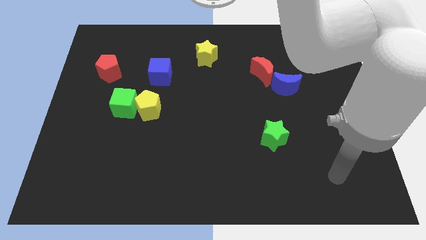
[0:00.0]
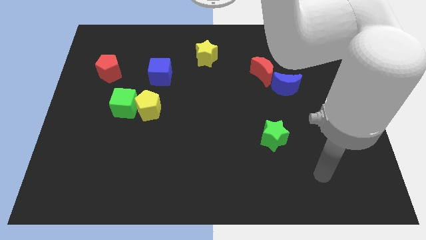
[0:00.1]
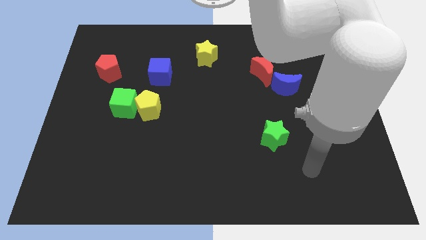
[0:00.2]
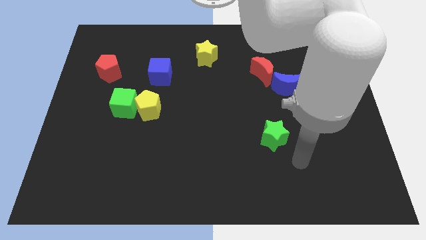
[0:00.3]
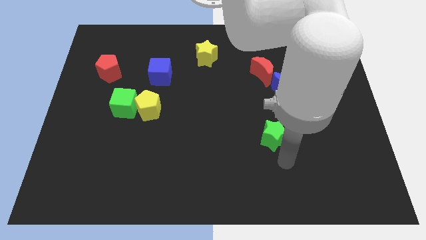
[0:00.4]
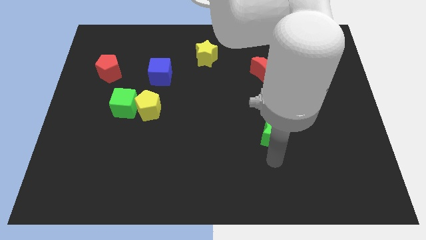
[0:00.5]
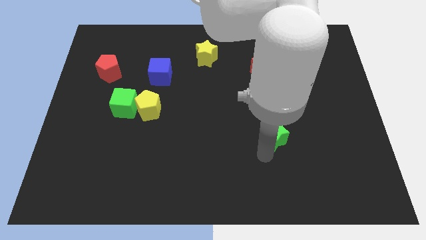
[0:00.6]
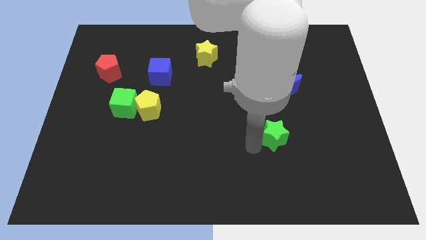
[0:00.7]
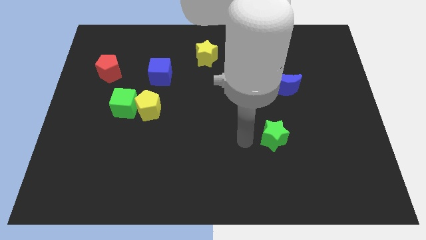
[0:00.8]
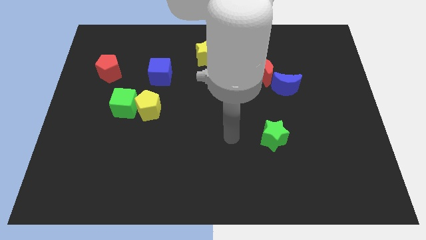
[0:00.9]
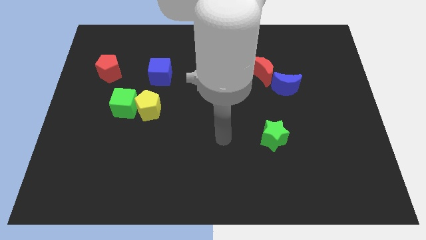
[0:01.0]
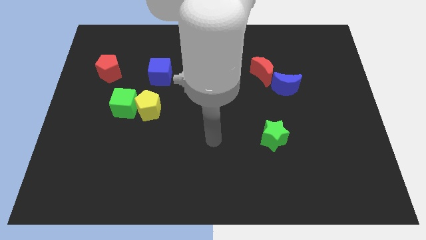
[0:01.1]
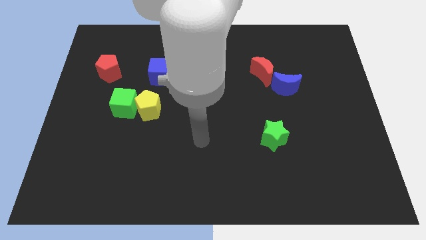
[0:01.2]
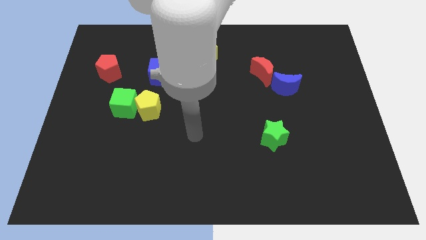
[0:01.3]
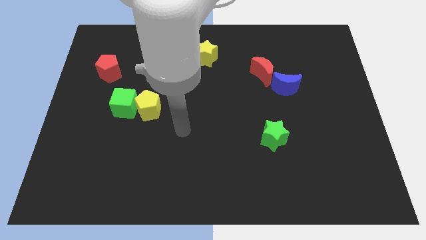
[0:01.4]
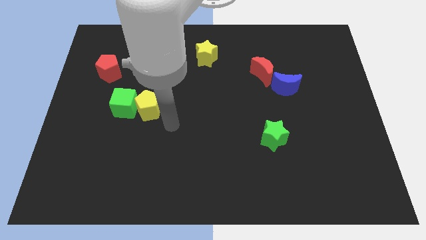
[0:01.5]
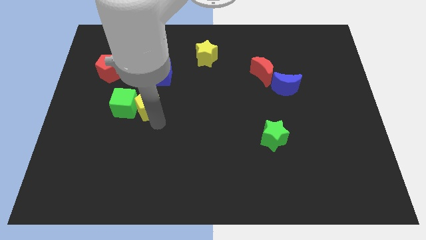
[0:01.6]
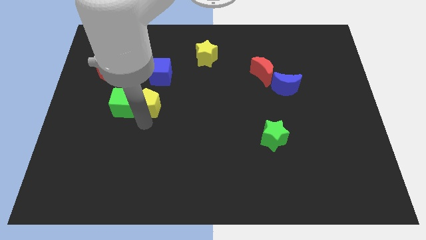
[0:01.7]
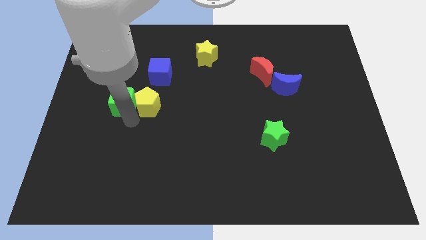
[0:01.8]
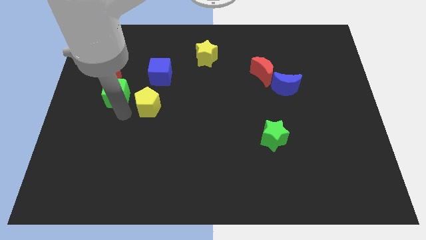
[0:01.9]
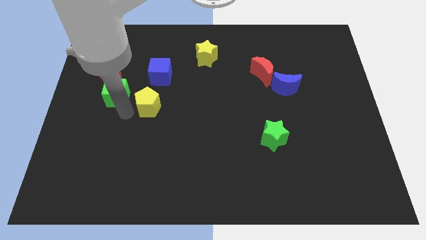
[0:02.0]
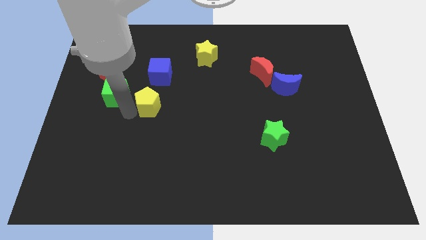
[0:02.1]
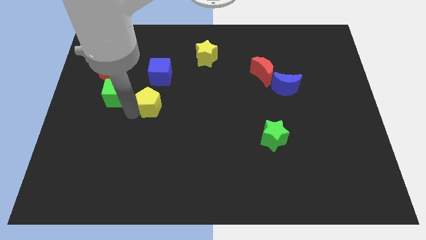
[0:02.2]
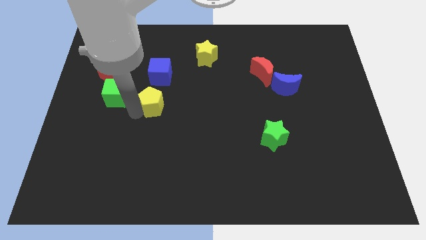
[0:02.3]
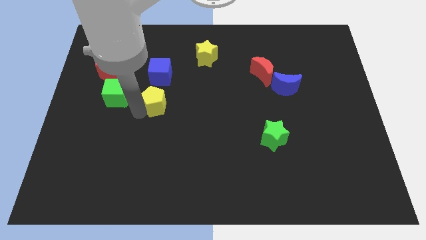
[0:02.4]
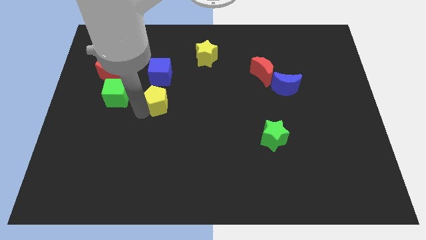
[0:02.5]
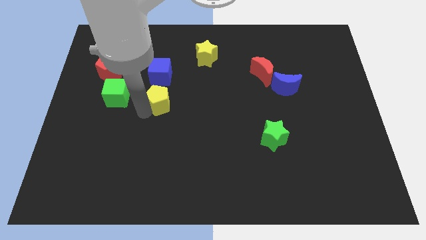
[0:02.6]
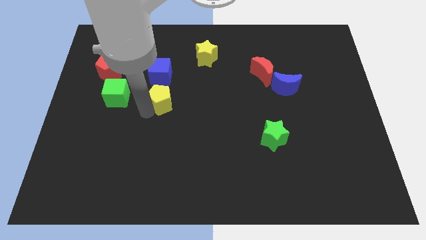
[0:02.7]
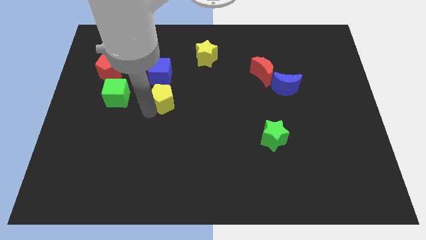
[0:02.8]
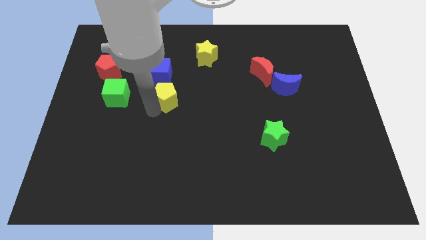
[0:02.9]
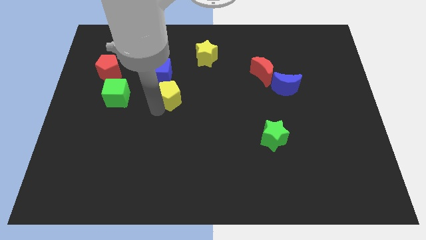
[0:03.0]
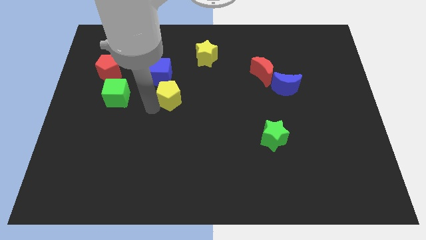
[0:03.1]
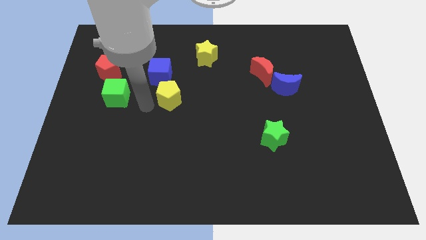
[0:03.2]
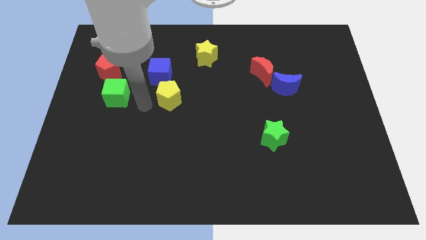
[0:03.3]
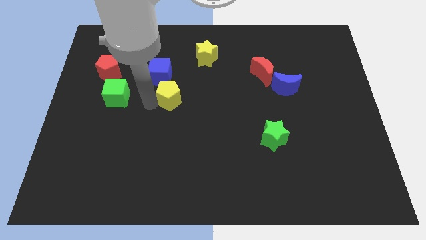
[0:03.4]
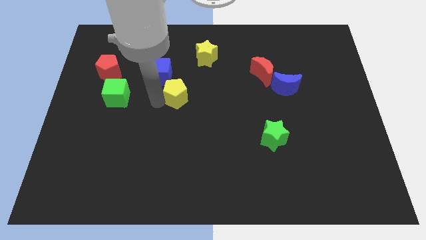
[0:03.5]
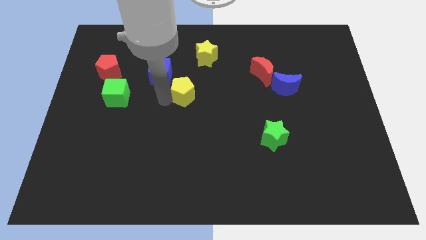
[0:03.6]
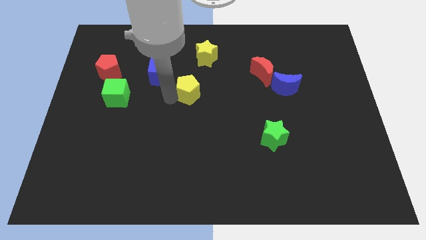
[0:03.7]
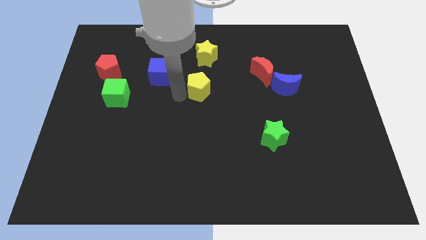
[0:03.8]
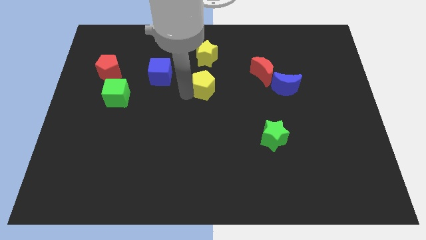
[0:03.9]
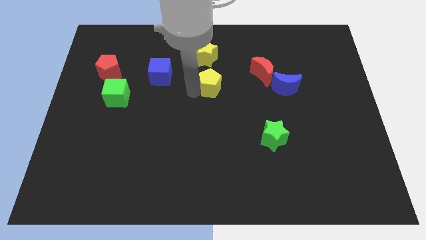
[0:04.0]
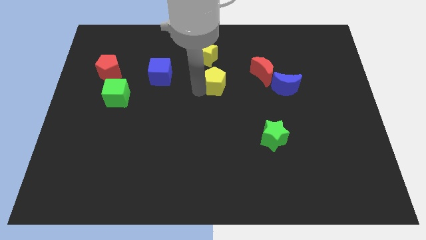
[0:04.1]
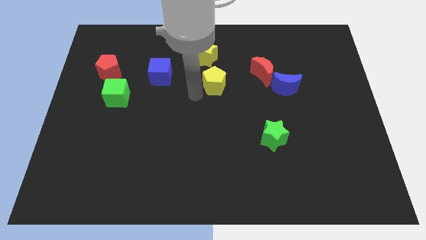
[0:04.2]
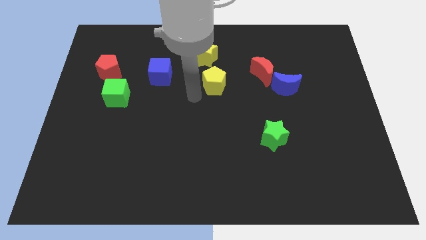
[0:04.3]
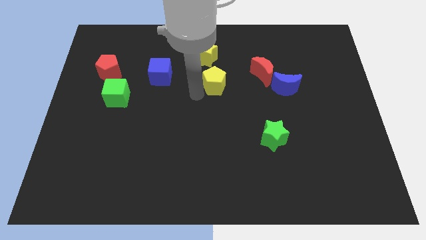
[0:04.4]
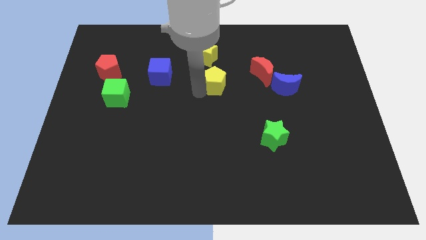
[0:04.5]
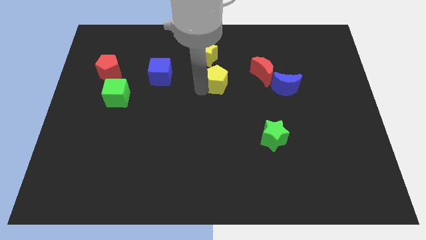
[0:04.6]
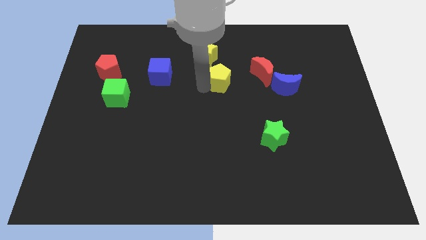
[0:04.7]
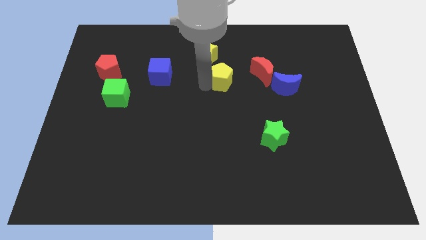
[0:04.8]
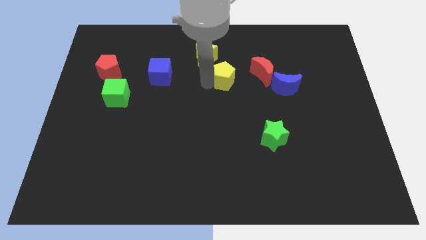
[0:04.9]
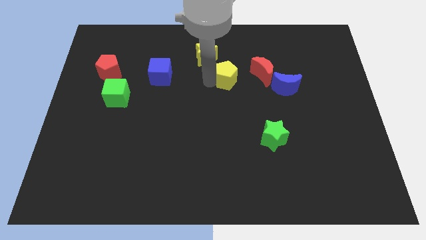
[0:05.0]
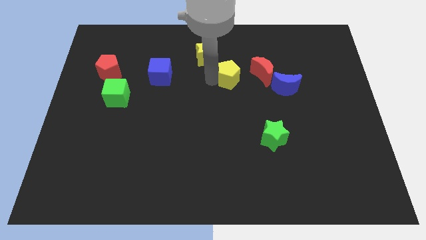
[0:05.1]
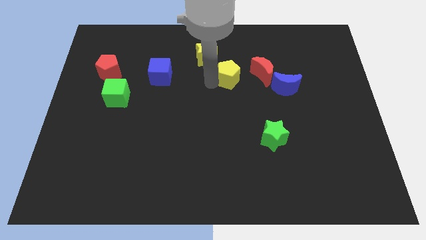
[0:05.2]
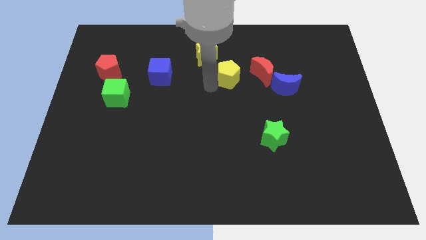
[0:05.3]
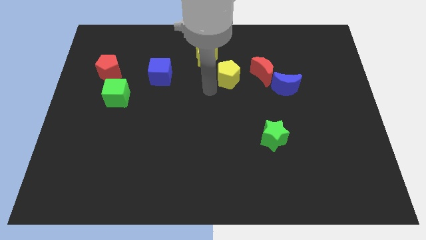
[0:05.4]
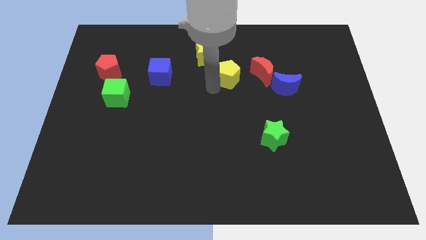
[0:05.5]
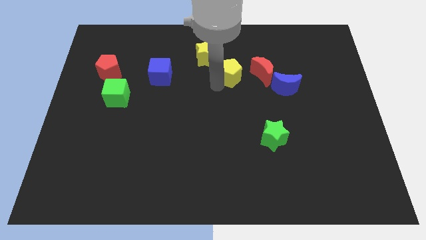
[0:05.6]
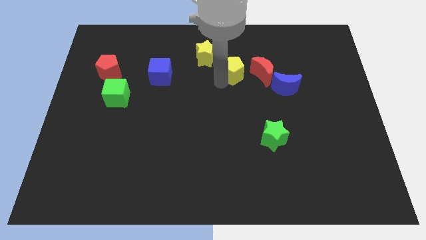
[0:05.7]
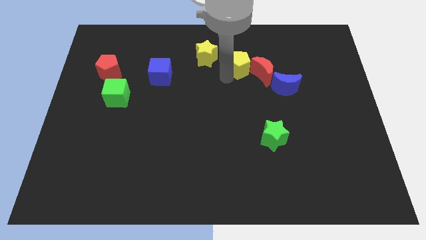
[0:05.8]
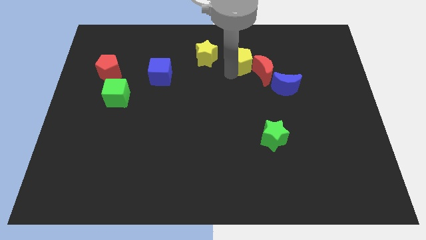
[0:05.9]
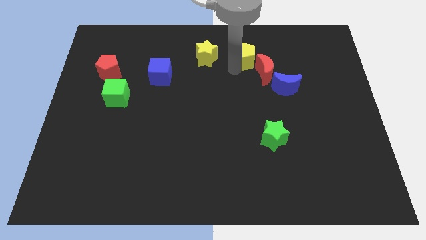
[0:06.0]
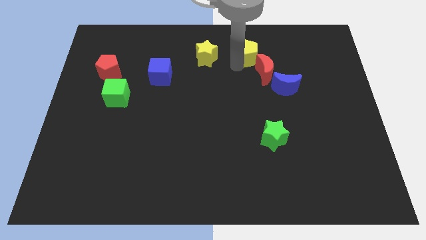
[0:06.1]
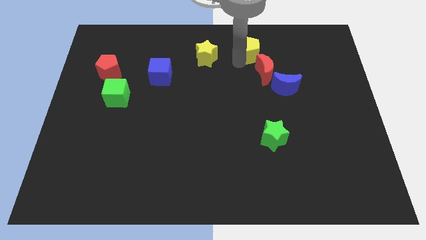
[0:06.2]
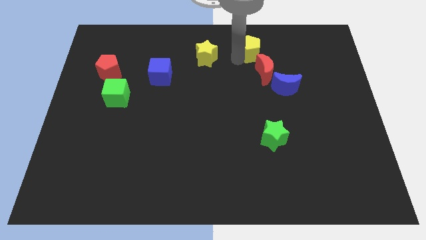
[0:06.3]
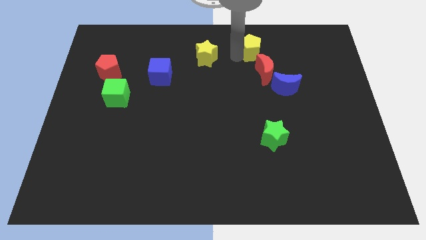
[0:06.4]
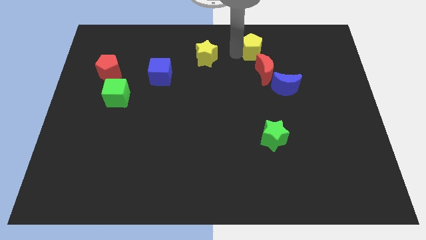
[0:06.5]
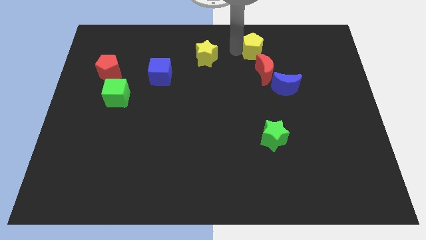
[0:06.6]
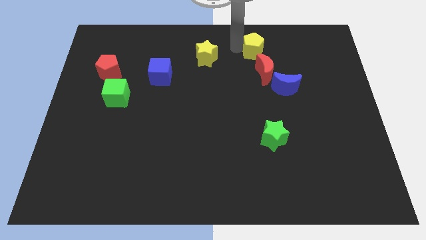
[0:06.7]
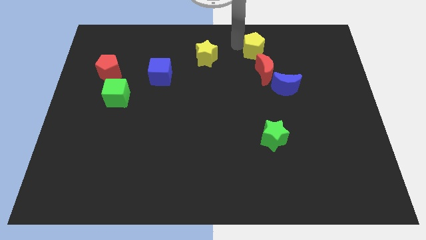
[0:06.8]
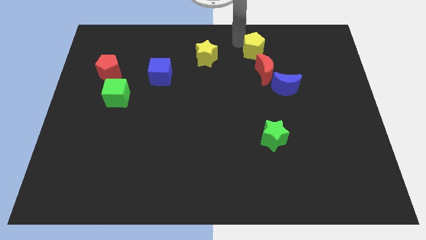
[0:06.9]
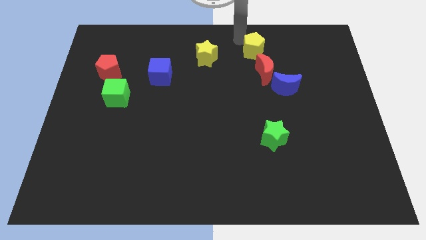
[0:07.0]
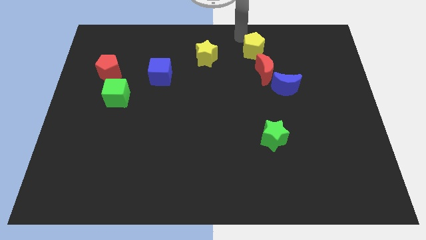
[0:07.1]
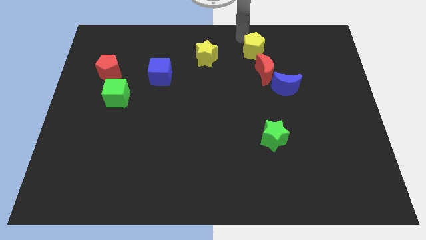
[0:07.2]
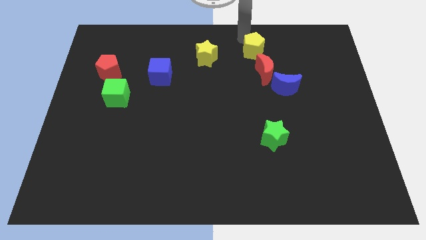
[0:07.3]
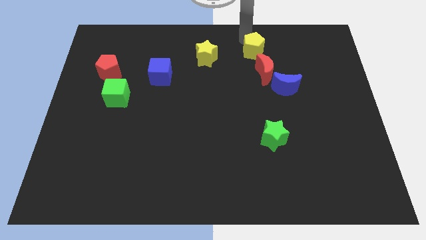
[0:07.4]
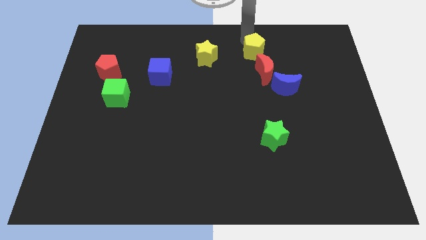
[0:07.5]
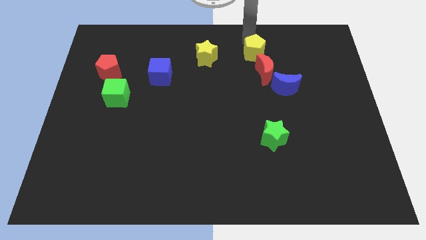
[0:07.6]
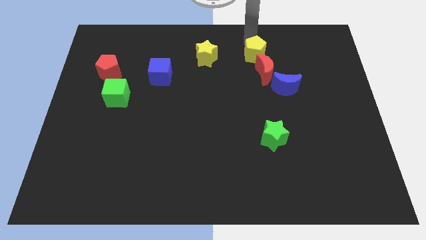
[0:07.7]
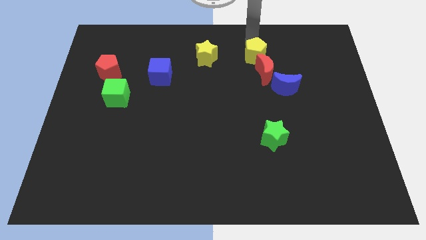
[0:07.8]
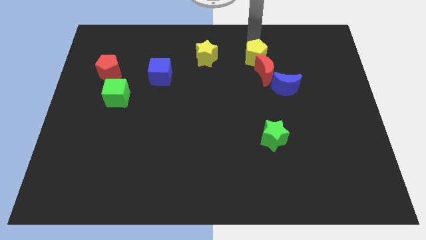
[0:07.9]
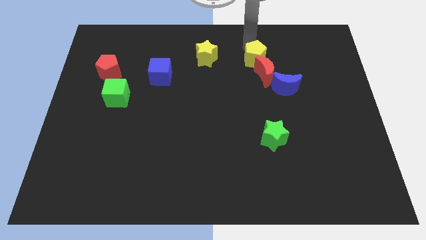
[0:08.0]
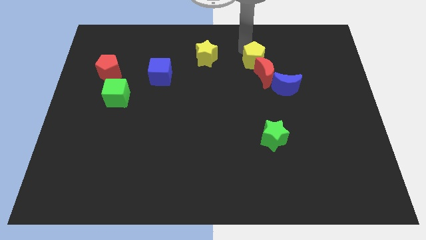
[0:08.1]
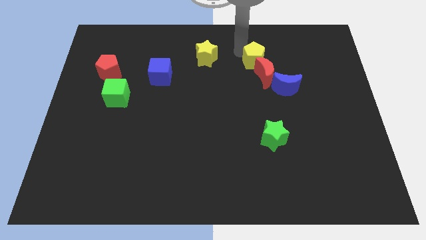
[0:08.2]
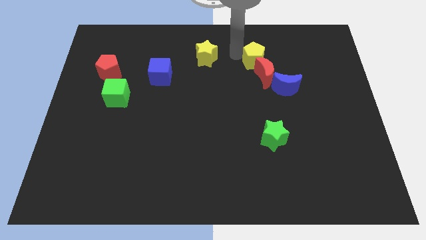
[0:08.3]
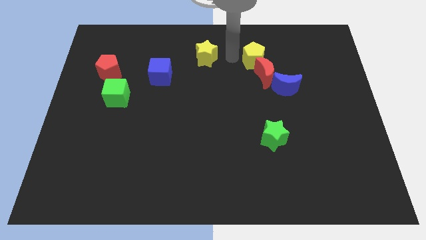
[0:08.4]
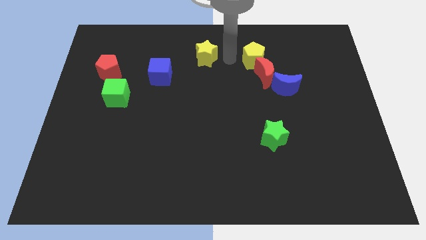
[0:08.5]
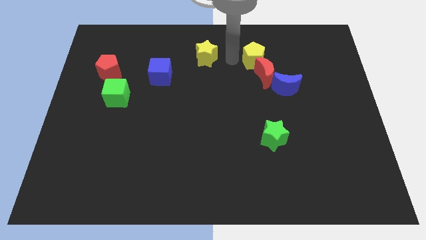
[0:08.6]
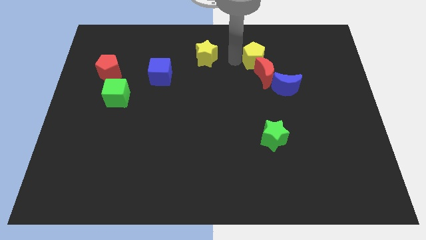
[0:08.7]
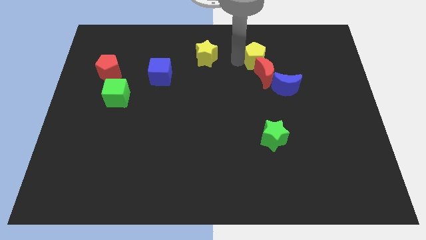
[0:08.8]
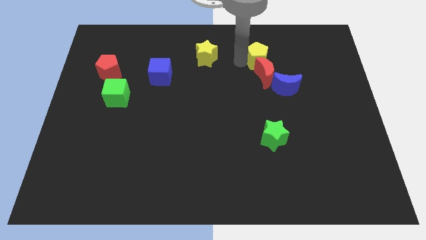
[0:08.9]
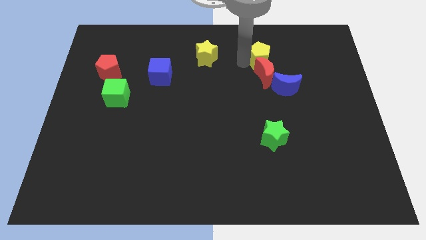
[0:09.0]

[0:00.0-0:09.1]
push the yellow pentagon to the top right side of the red moon
